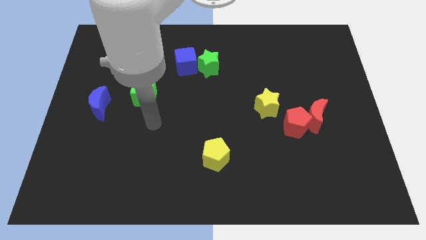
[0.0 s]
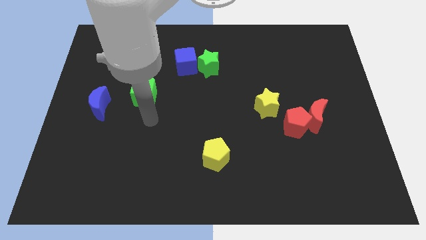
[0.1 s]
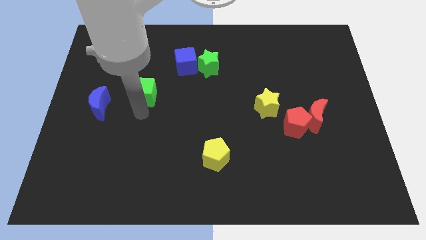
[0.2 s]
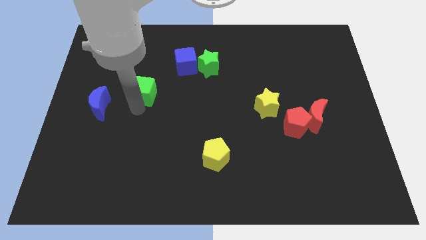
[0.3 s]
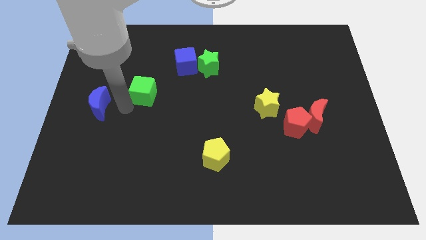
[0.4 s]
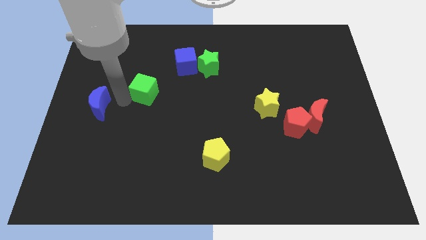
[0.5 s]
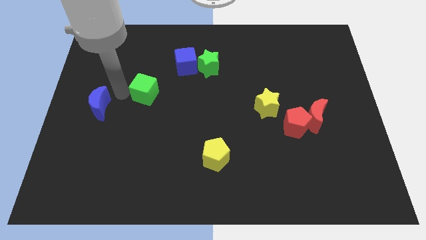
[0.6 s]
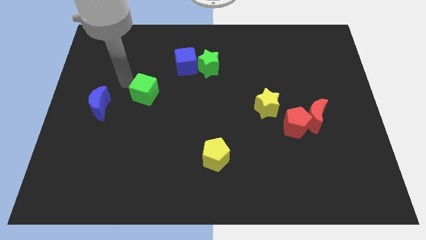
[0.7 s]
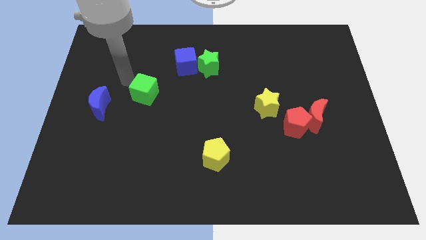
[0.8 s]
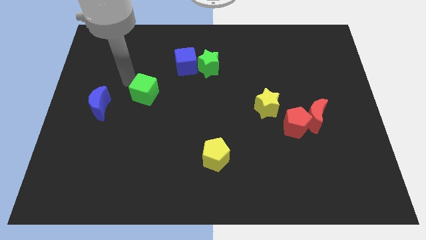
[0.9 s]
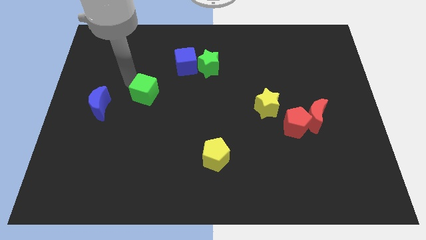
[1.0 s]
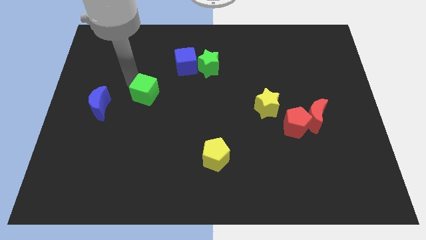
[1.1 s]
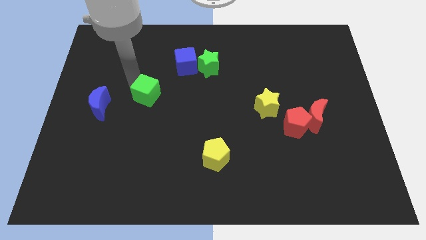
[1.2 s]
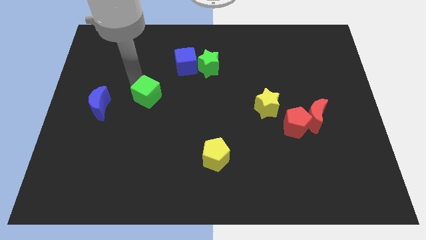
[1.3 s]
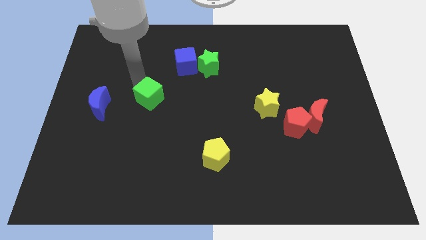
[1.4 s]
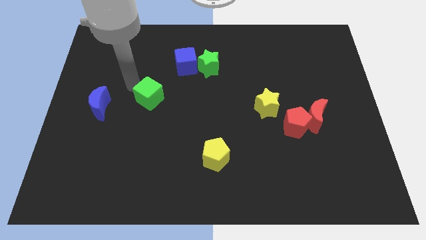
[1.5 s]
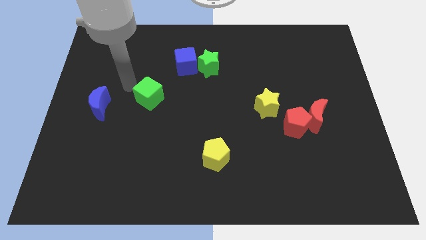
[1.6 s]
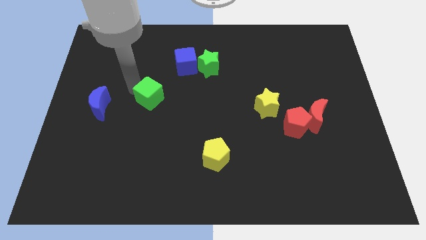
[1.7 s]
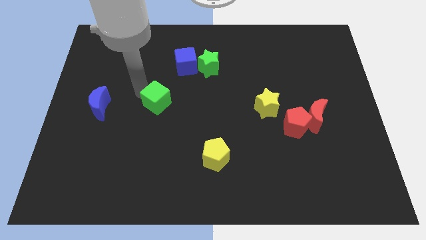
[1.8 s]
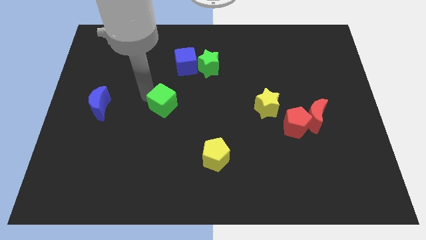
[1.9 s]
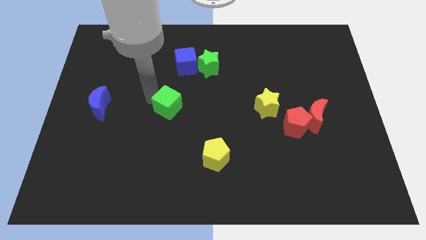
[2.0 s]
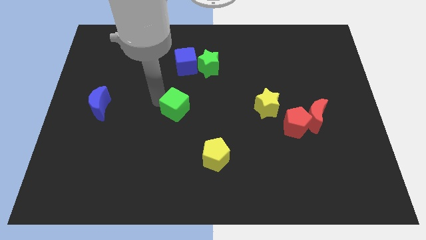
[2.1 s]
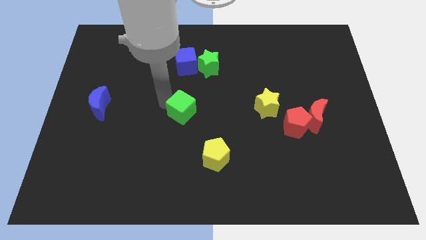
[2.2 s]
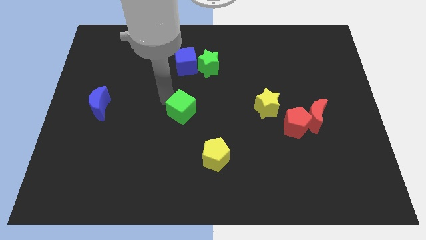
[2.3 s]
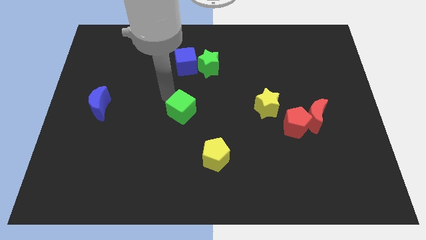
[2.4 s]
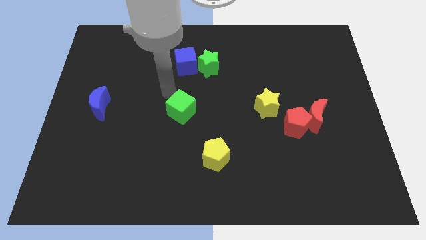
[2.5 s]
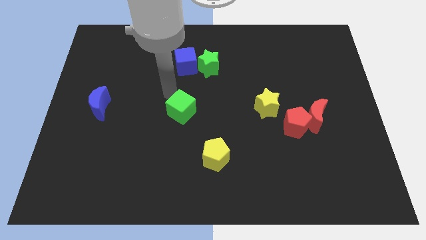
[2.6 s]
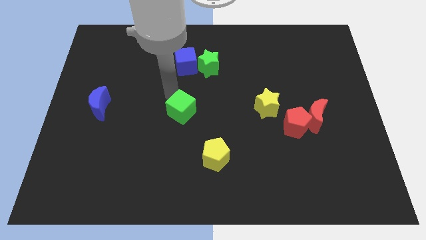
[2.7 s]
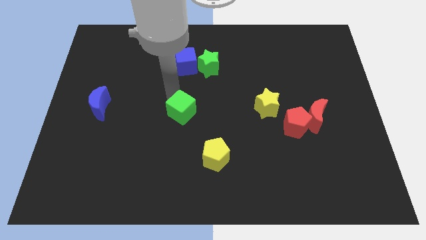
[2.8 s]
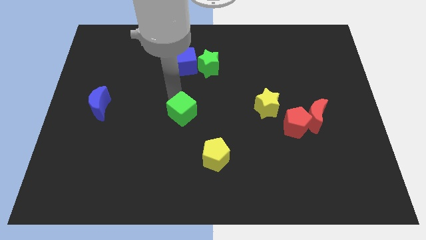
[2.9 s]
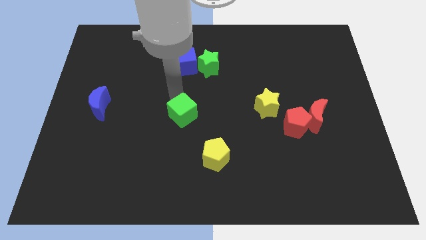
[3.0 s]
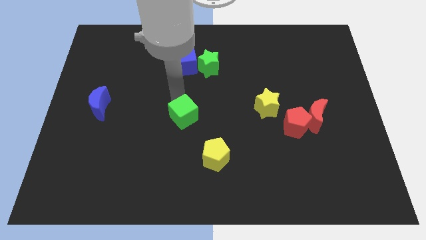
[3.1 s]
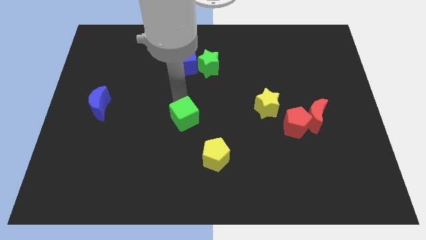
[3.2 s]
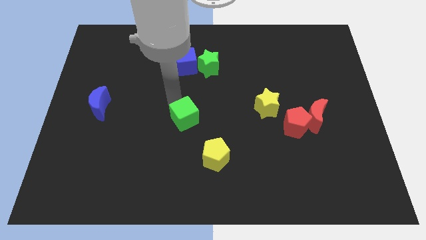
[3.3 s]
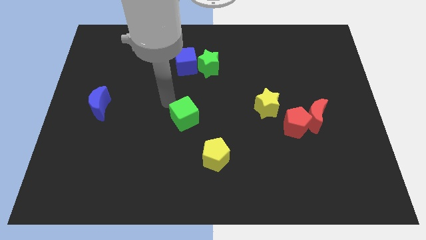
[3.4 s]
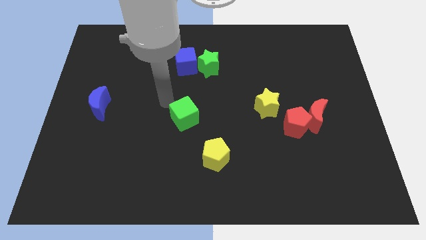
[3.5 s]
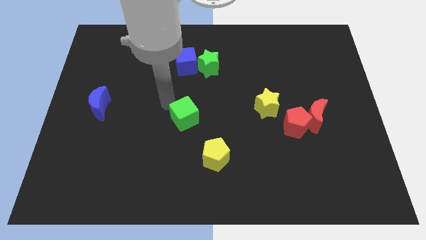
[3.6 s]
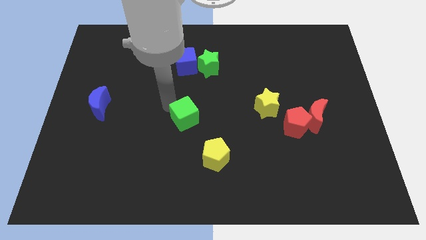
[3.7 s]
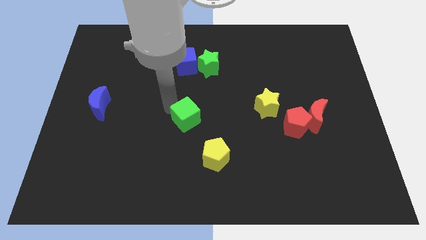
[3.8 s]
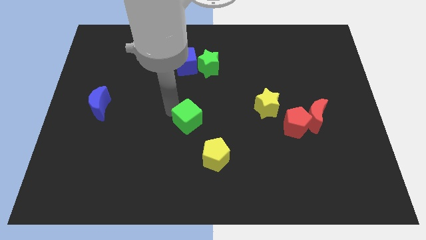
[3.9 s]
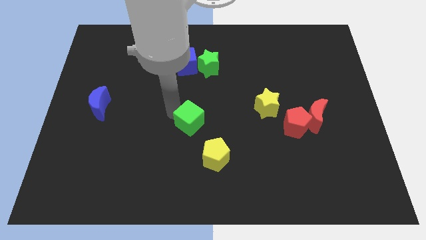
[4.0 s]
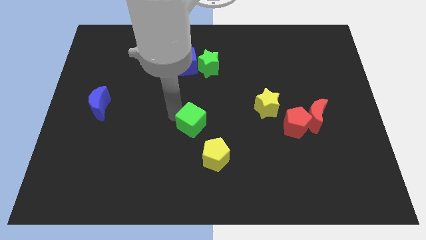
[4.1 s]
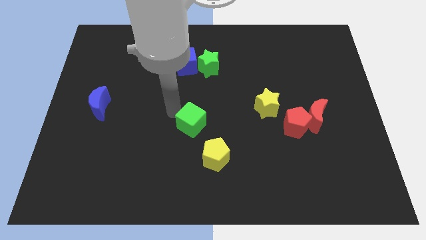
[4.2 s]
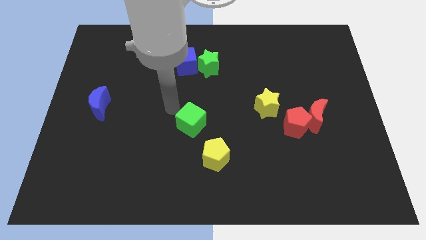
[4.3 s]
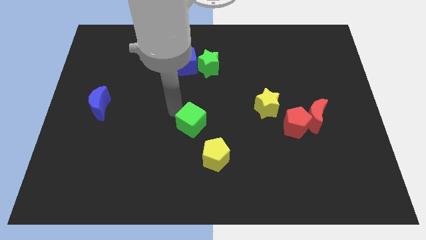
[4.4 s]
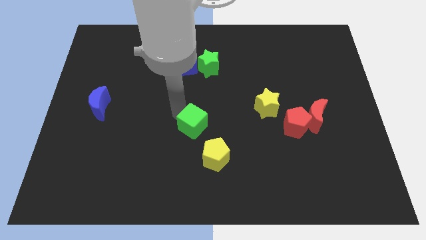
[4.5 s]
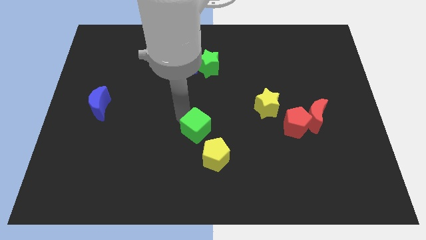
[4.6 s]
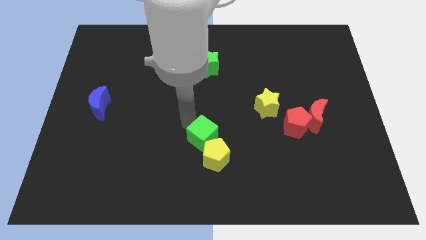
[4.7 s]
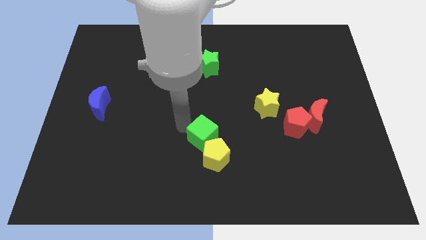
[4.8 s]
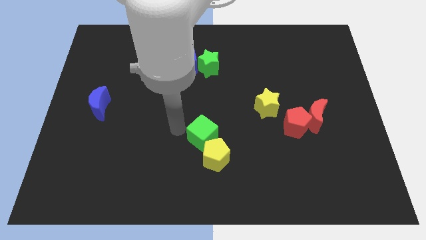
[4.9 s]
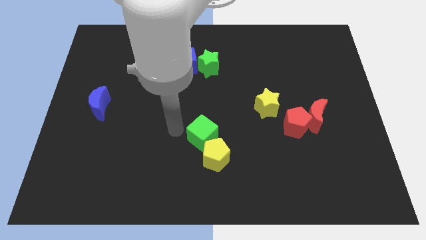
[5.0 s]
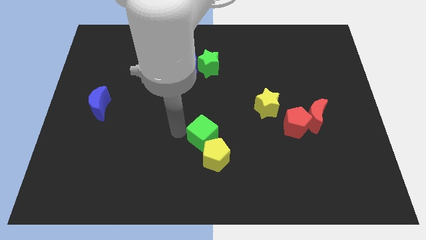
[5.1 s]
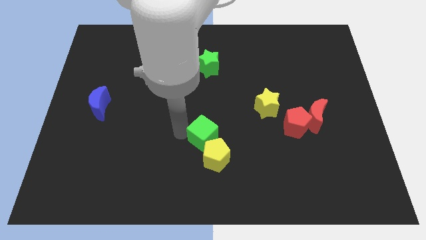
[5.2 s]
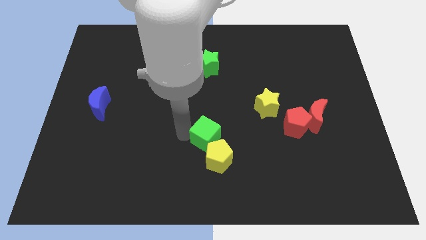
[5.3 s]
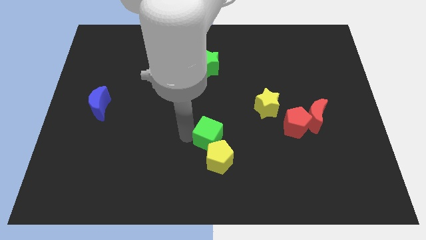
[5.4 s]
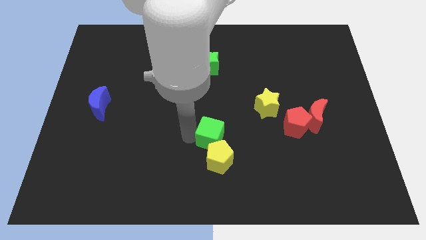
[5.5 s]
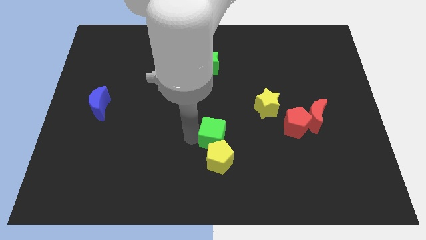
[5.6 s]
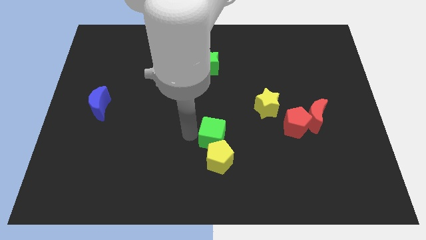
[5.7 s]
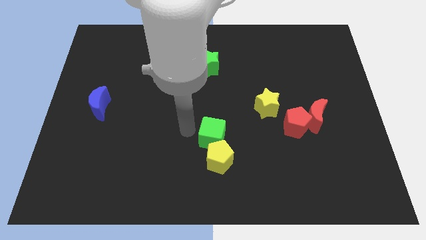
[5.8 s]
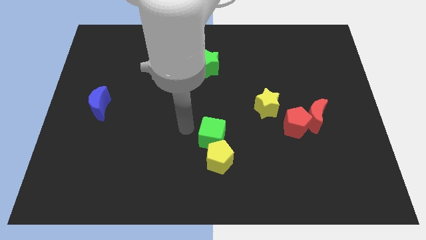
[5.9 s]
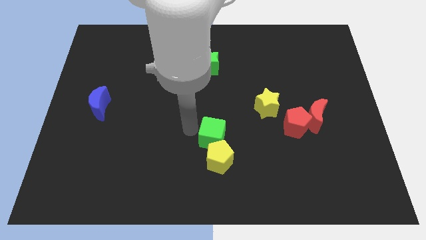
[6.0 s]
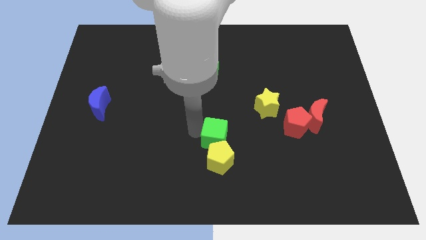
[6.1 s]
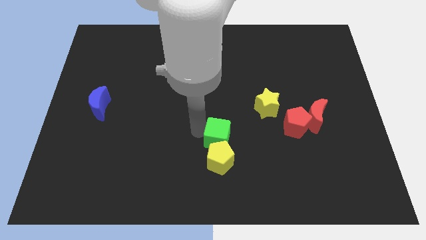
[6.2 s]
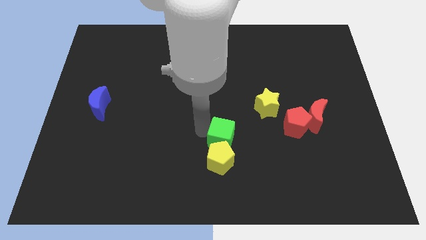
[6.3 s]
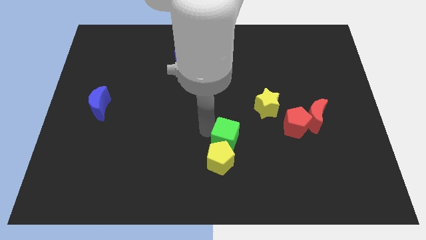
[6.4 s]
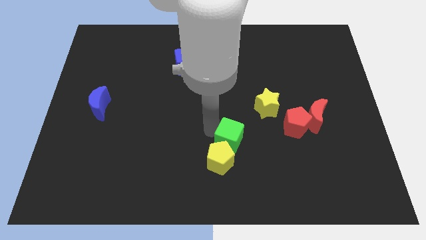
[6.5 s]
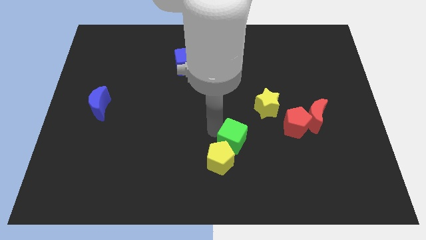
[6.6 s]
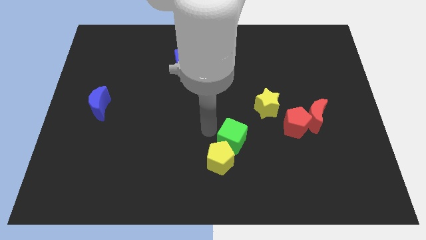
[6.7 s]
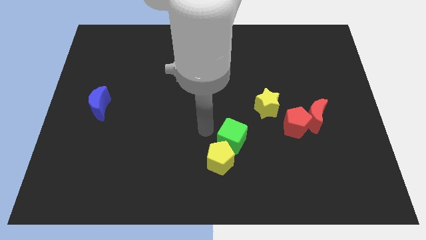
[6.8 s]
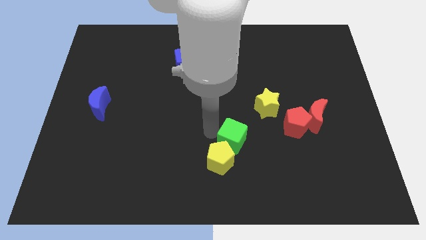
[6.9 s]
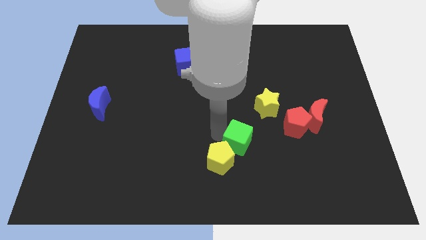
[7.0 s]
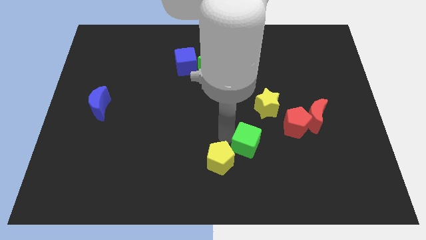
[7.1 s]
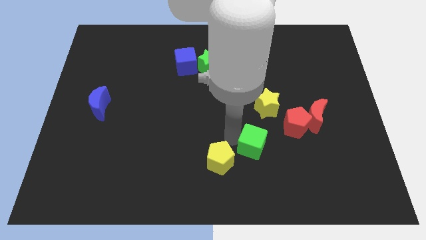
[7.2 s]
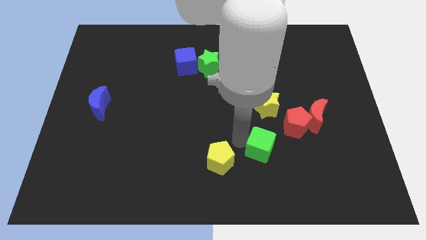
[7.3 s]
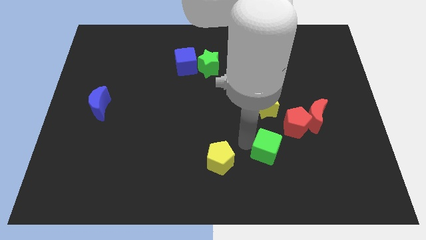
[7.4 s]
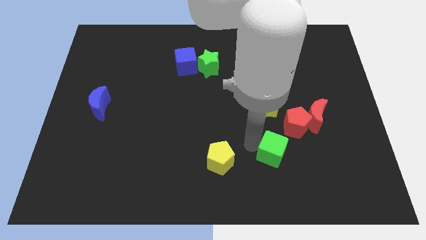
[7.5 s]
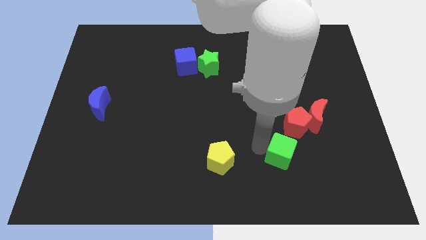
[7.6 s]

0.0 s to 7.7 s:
slide the green cube to the bottom of the red pentagon
